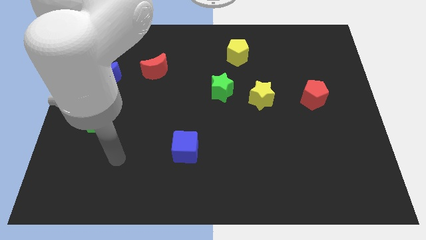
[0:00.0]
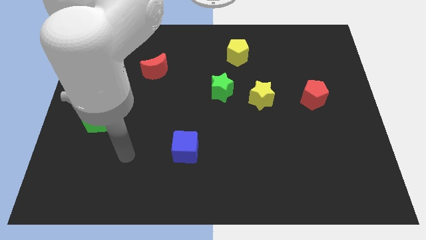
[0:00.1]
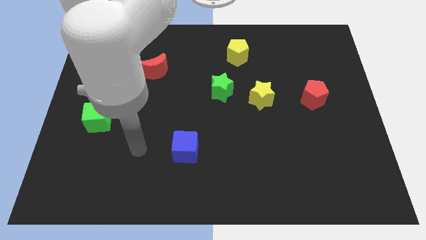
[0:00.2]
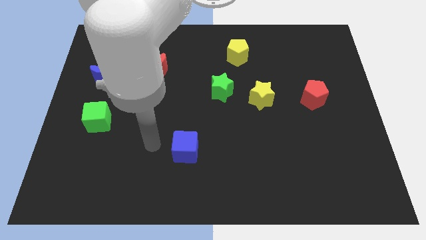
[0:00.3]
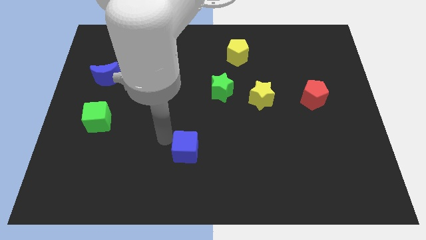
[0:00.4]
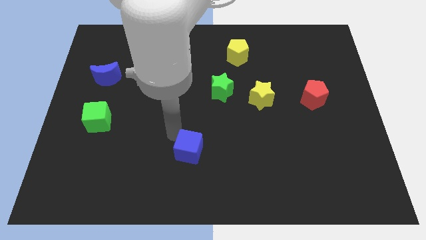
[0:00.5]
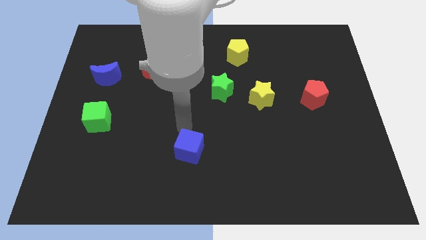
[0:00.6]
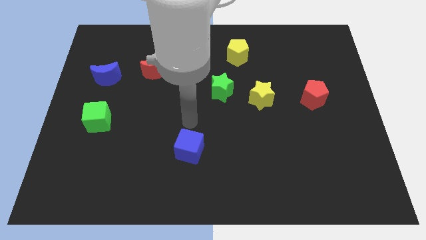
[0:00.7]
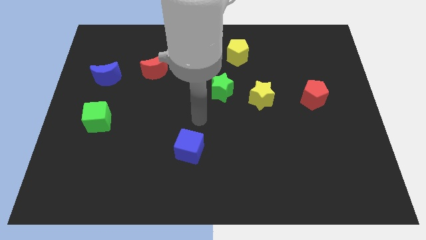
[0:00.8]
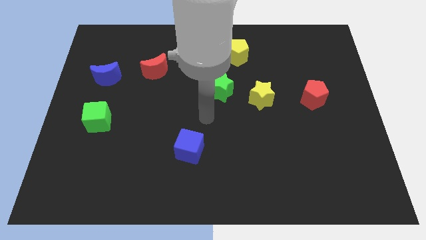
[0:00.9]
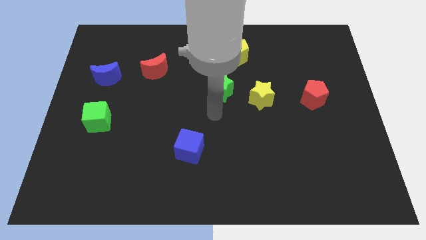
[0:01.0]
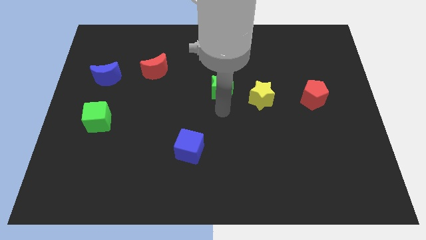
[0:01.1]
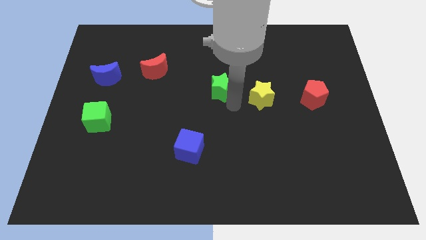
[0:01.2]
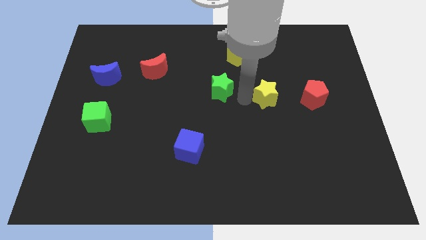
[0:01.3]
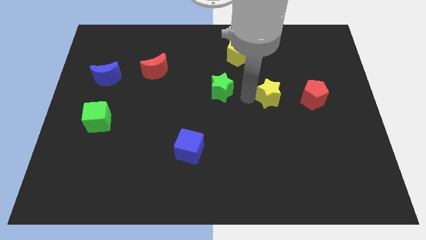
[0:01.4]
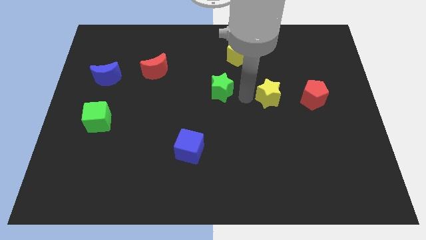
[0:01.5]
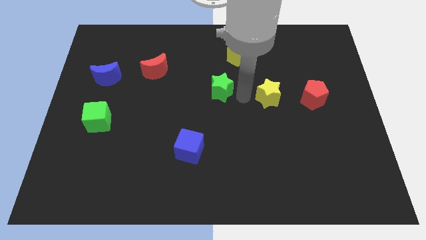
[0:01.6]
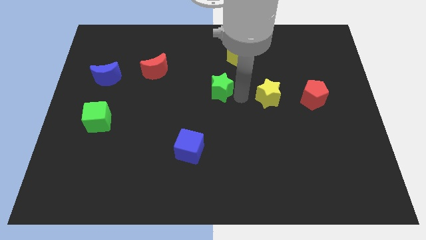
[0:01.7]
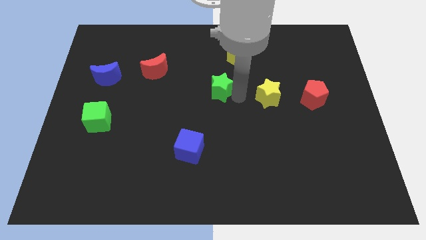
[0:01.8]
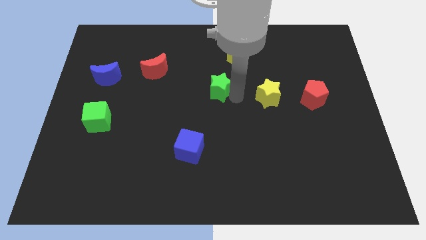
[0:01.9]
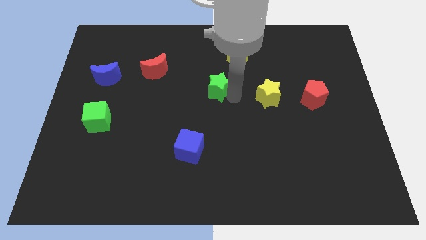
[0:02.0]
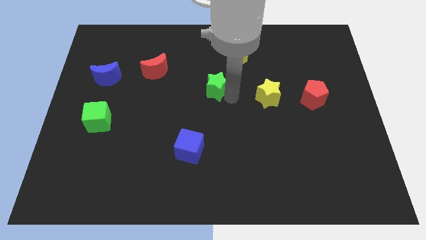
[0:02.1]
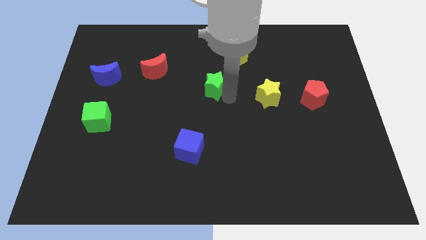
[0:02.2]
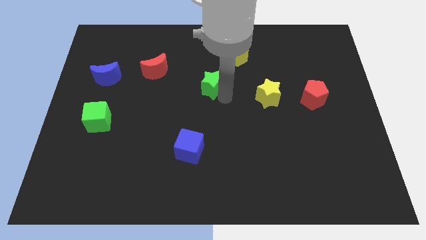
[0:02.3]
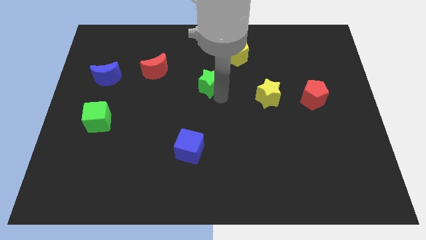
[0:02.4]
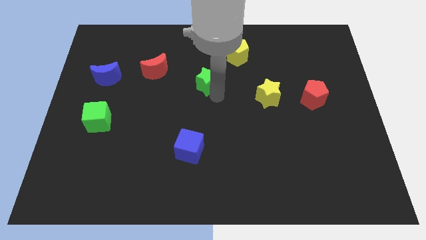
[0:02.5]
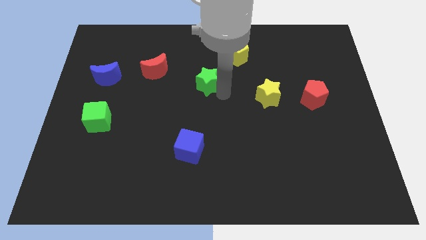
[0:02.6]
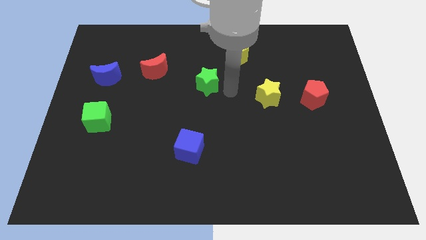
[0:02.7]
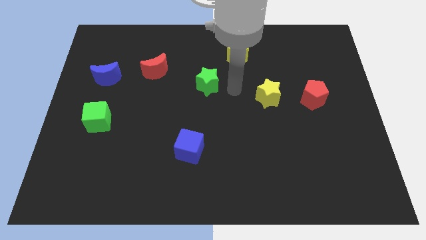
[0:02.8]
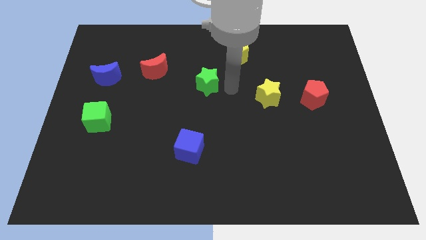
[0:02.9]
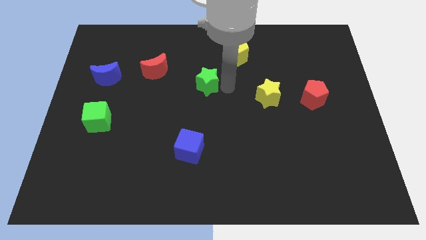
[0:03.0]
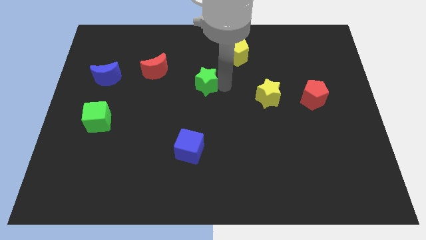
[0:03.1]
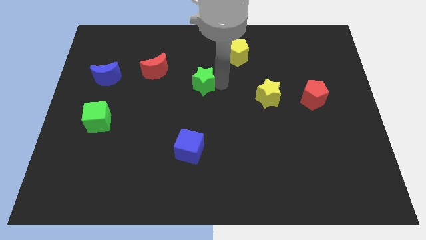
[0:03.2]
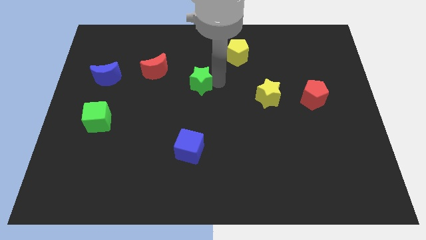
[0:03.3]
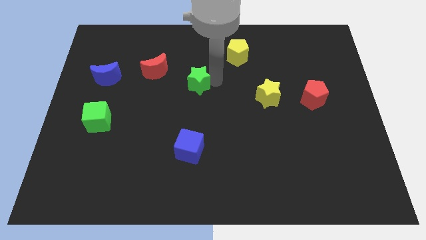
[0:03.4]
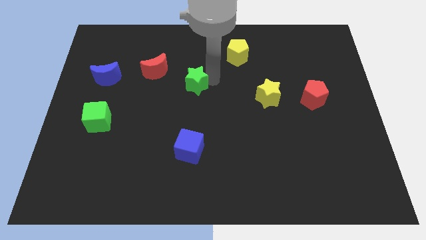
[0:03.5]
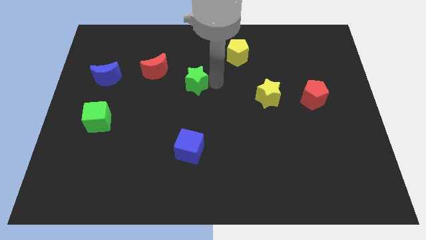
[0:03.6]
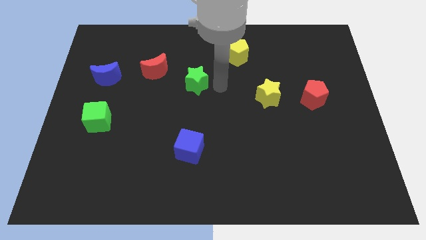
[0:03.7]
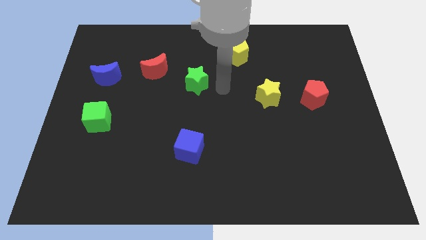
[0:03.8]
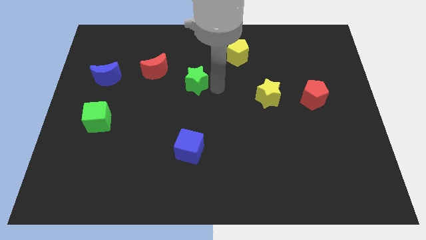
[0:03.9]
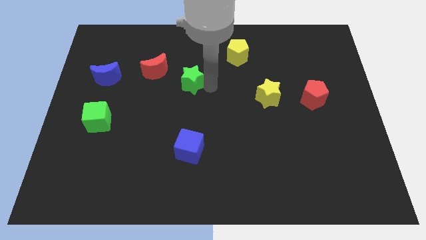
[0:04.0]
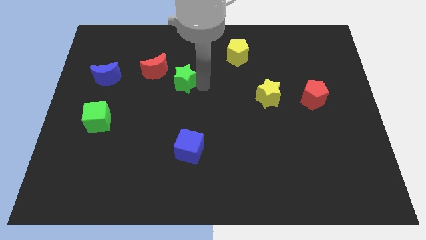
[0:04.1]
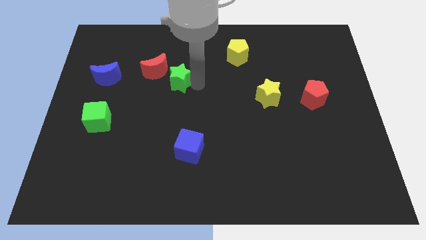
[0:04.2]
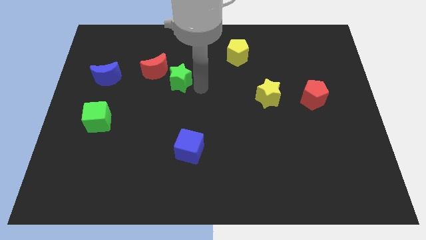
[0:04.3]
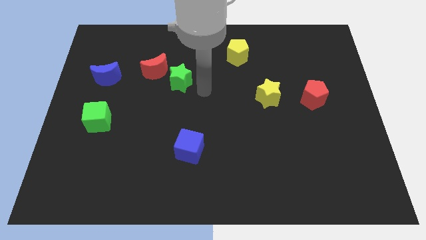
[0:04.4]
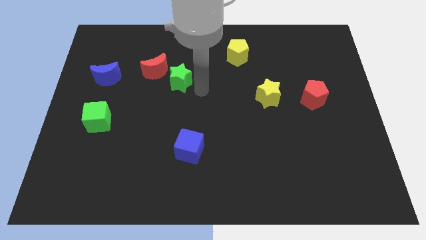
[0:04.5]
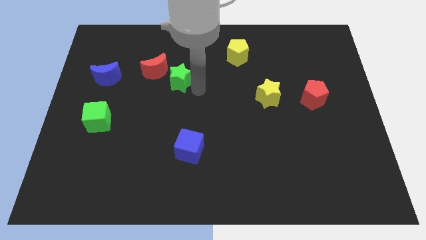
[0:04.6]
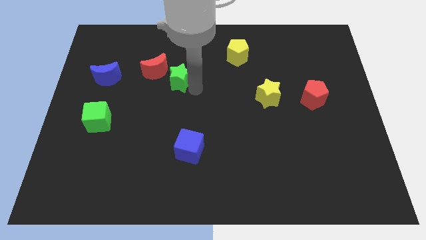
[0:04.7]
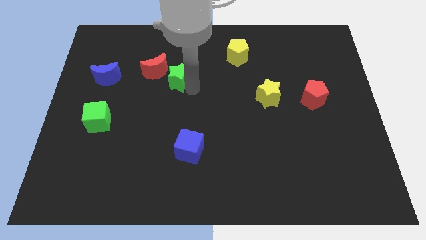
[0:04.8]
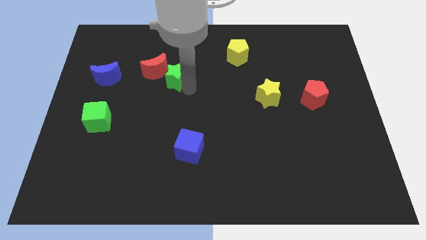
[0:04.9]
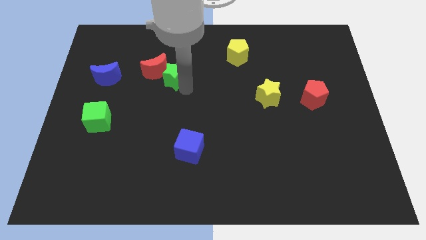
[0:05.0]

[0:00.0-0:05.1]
put the green star next to the red moon

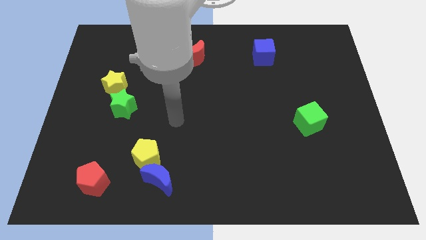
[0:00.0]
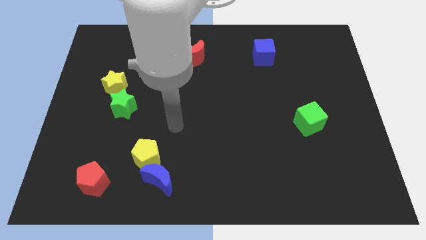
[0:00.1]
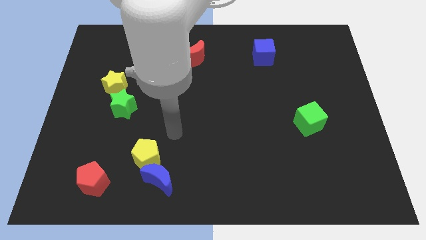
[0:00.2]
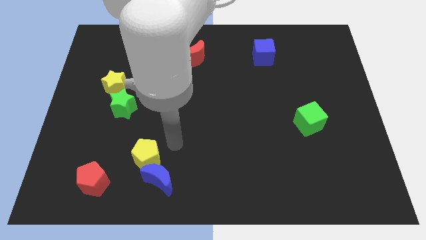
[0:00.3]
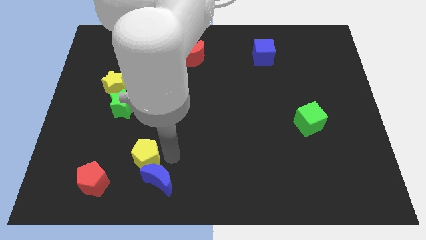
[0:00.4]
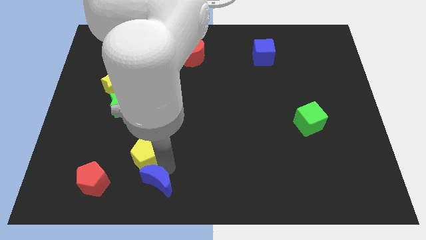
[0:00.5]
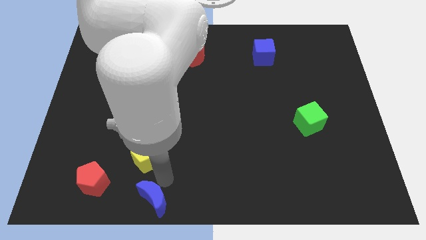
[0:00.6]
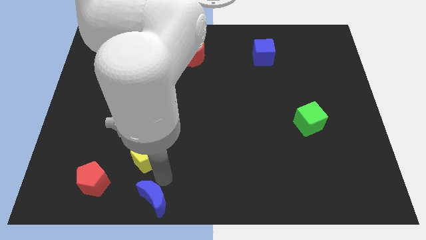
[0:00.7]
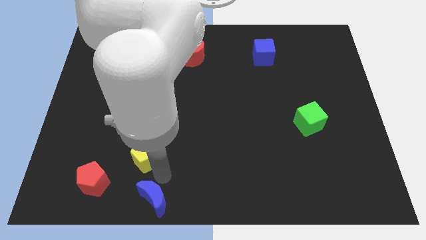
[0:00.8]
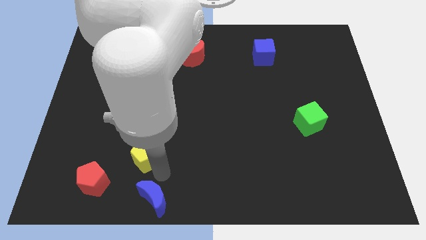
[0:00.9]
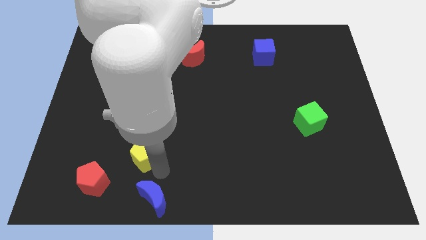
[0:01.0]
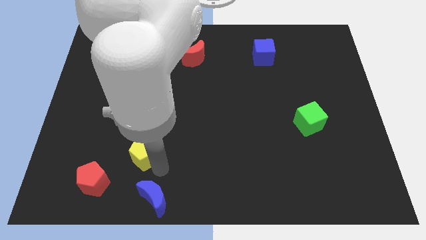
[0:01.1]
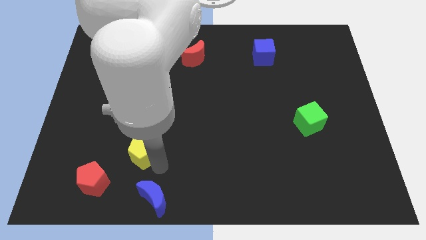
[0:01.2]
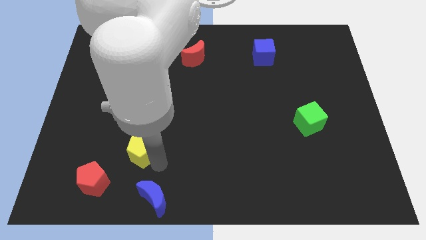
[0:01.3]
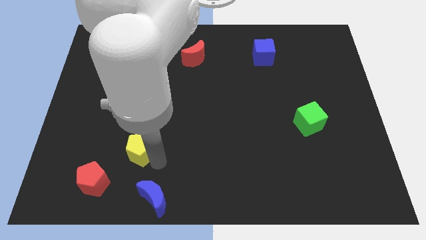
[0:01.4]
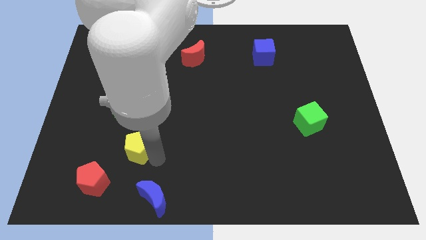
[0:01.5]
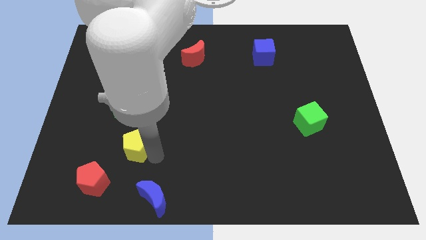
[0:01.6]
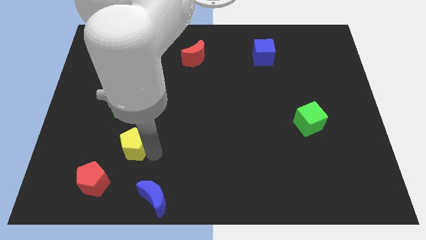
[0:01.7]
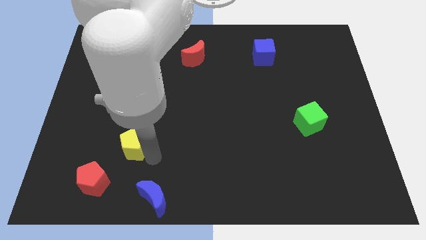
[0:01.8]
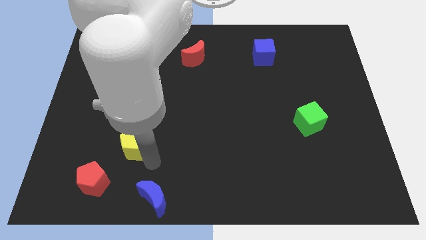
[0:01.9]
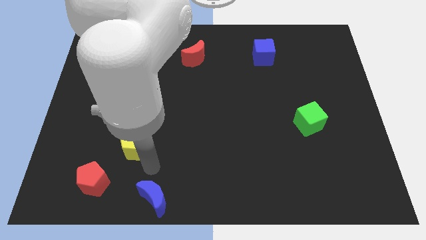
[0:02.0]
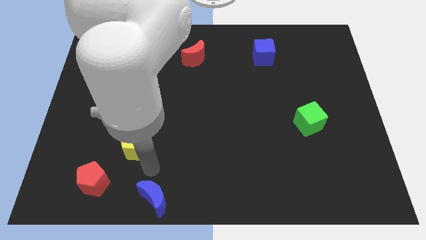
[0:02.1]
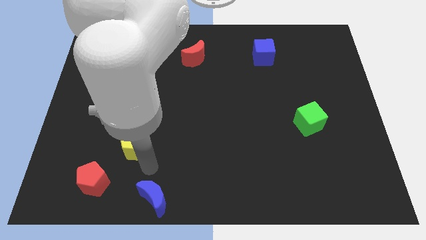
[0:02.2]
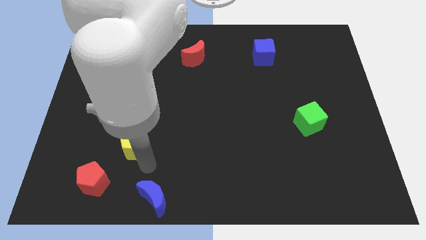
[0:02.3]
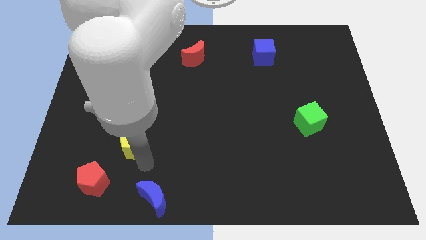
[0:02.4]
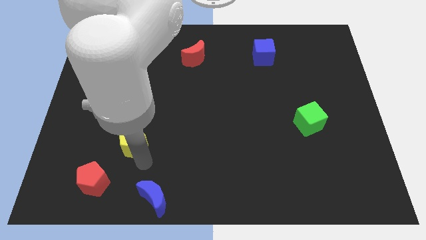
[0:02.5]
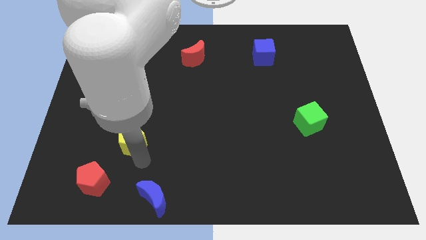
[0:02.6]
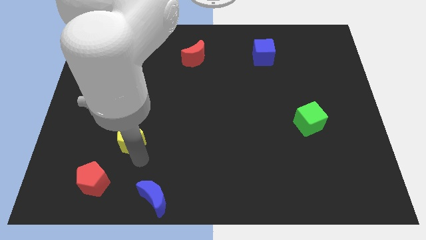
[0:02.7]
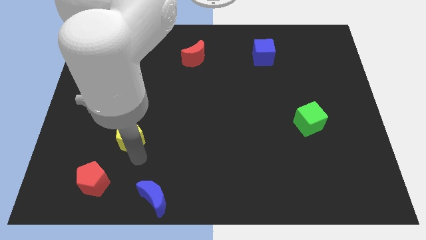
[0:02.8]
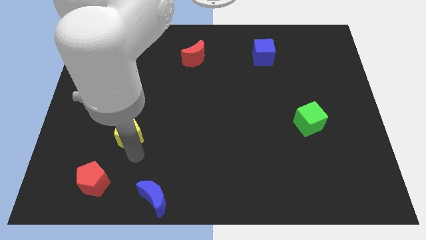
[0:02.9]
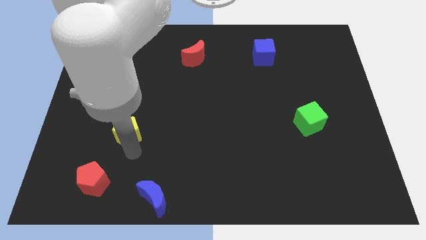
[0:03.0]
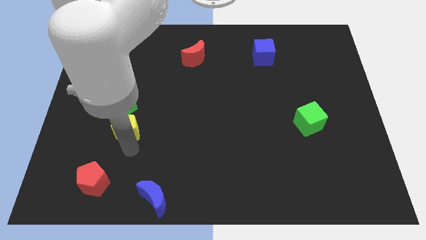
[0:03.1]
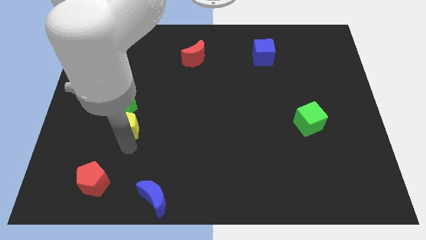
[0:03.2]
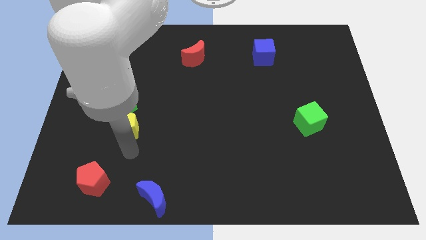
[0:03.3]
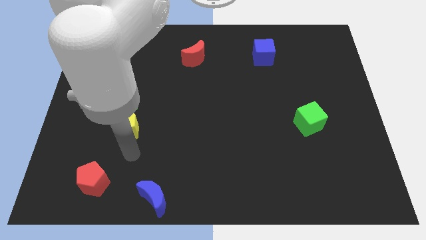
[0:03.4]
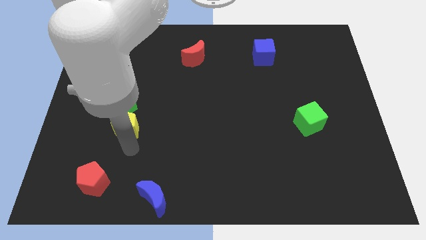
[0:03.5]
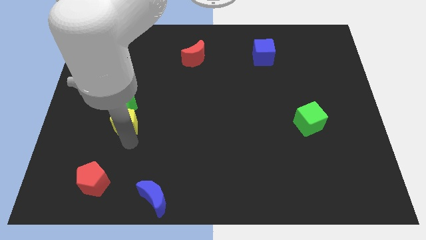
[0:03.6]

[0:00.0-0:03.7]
slide the yellow pentagon next to the green star
